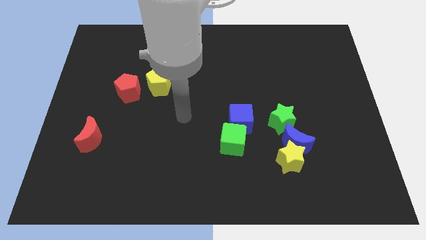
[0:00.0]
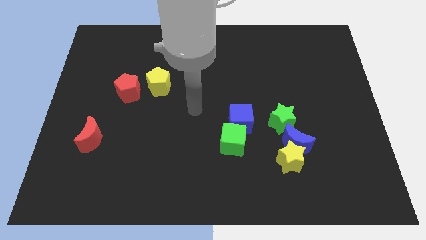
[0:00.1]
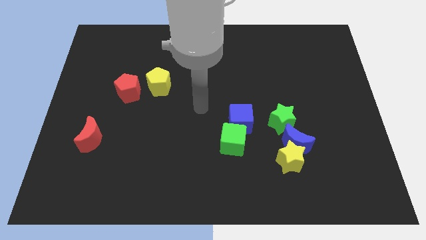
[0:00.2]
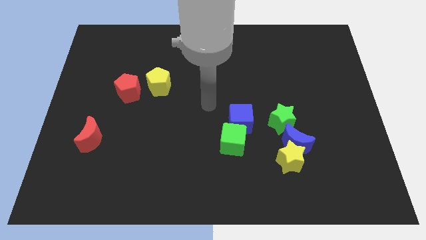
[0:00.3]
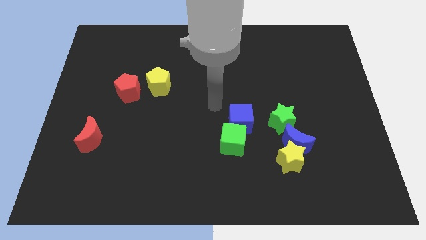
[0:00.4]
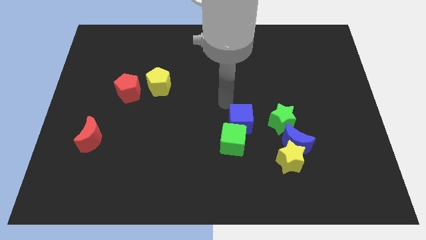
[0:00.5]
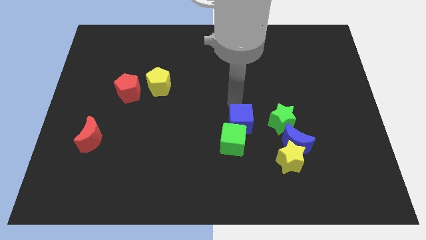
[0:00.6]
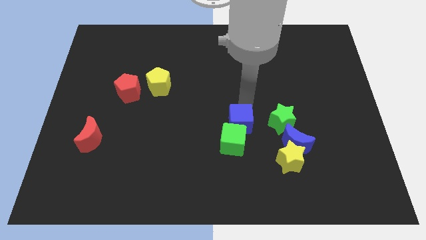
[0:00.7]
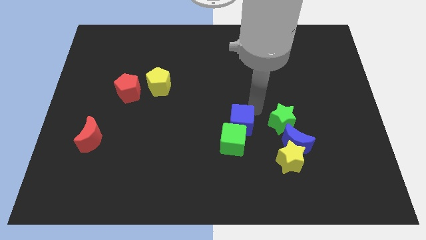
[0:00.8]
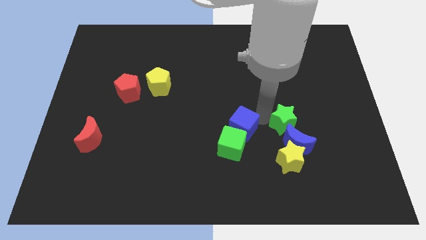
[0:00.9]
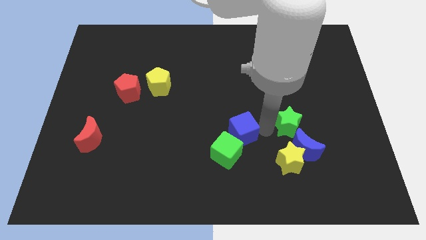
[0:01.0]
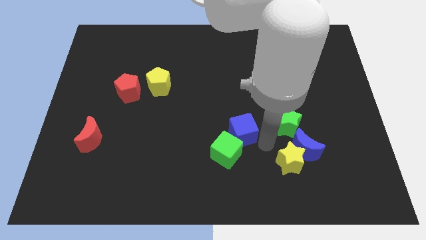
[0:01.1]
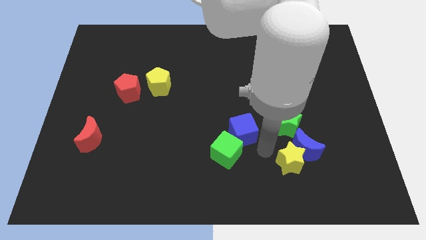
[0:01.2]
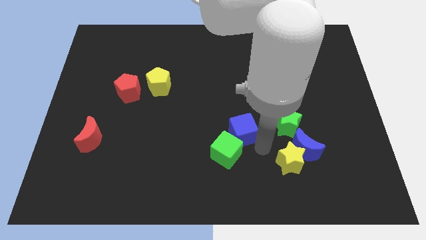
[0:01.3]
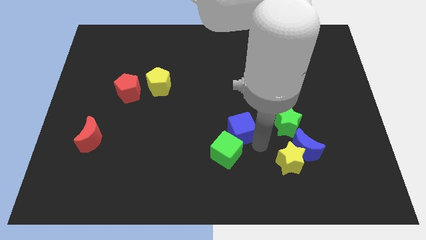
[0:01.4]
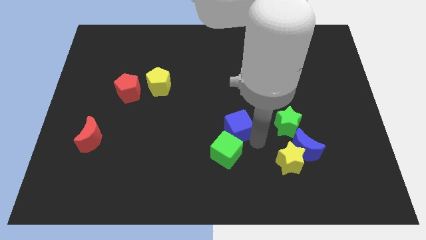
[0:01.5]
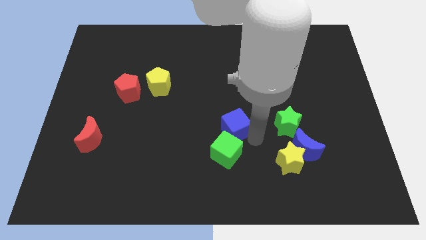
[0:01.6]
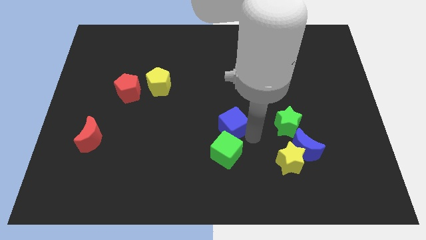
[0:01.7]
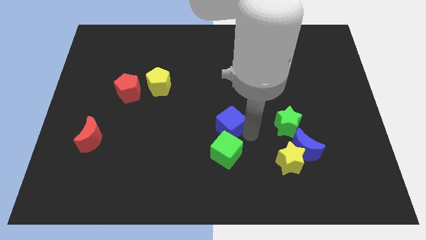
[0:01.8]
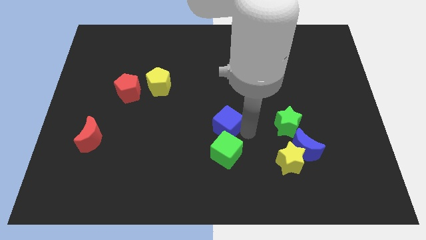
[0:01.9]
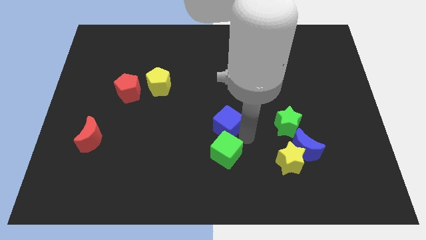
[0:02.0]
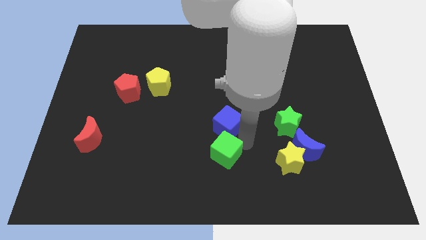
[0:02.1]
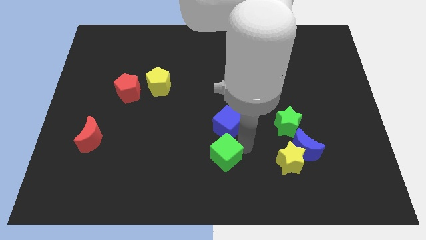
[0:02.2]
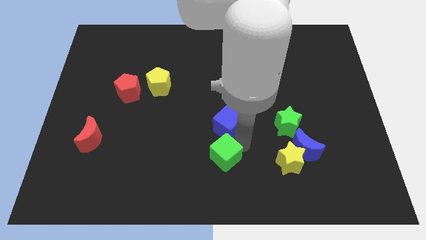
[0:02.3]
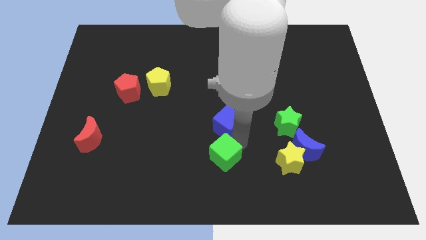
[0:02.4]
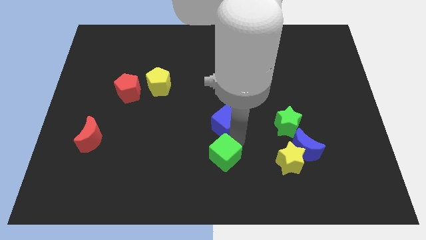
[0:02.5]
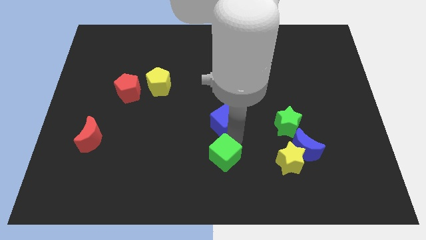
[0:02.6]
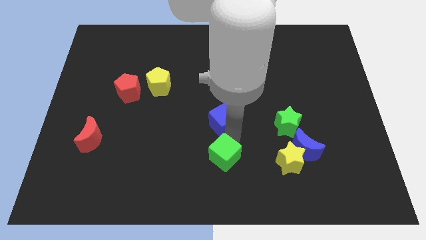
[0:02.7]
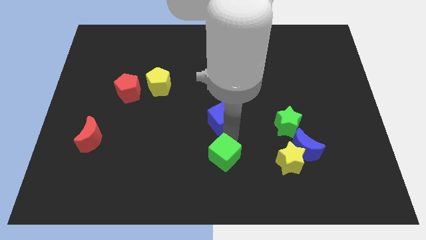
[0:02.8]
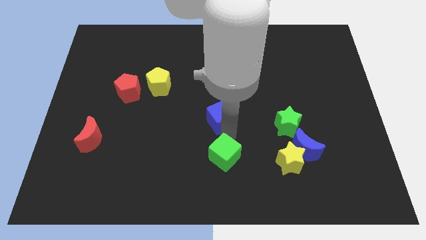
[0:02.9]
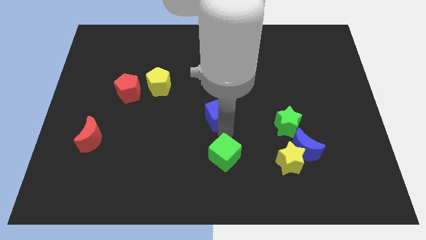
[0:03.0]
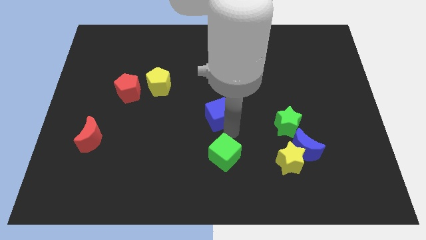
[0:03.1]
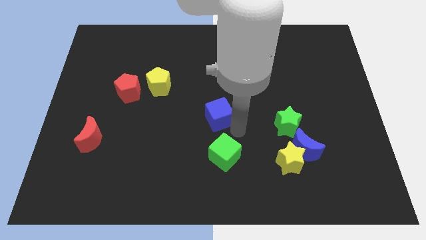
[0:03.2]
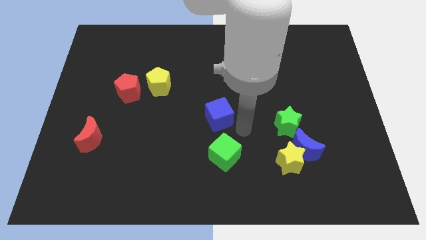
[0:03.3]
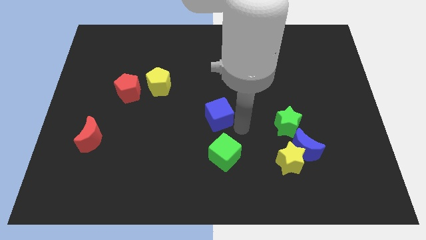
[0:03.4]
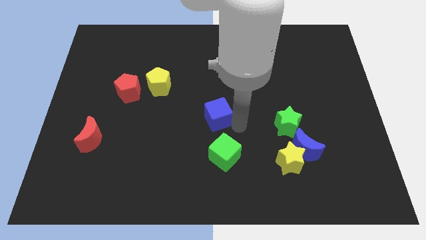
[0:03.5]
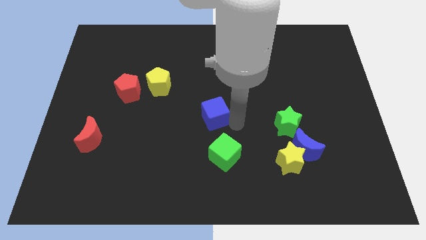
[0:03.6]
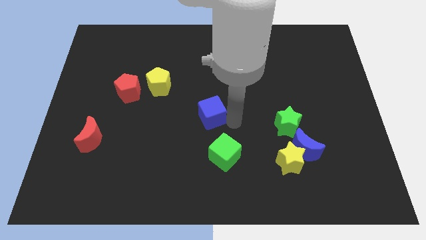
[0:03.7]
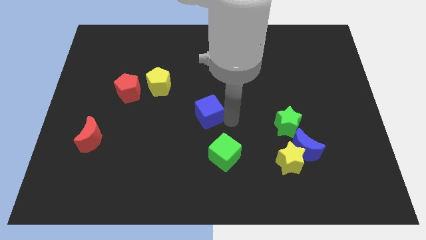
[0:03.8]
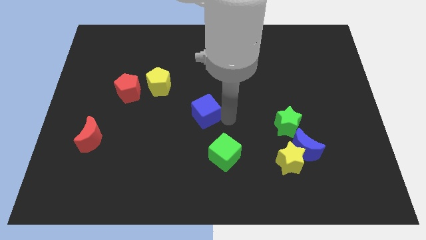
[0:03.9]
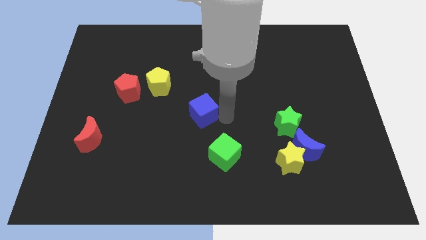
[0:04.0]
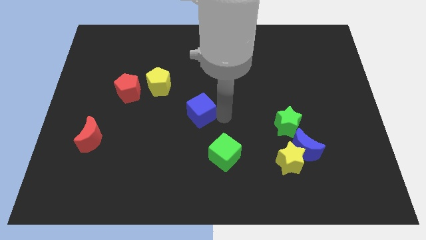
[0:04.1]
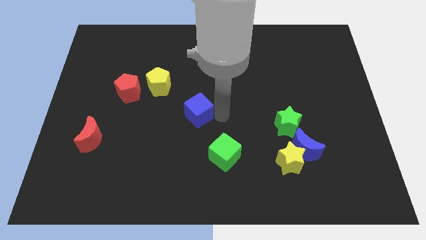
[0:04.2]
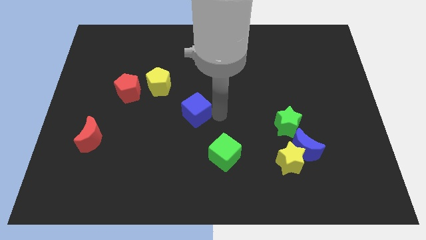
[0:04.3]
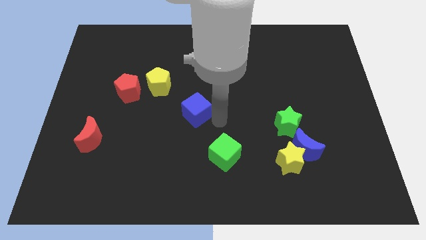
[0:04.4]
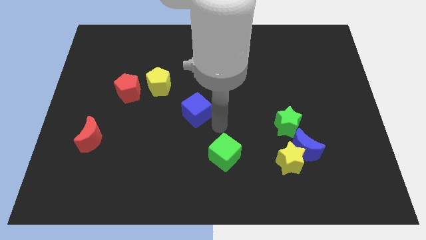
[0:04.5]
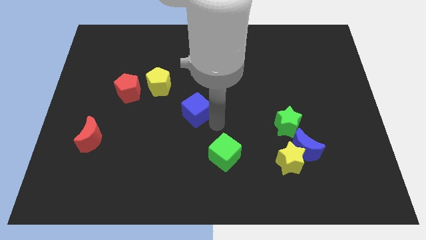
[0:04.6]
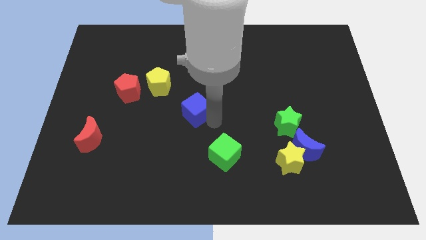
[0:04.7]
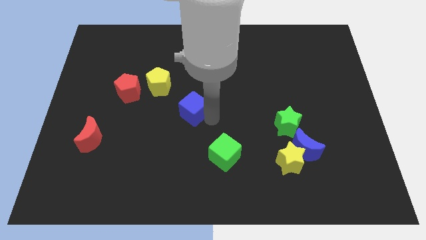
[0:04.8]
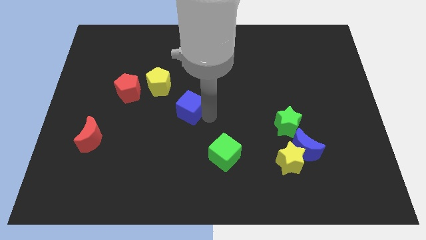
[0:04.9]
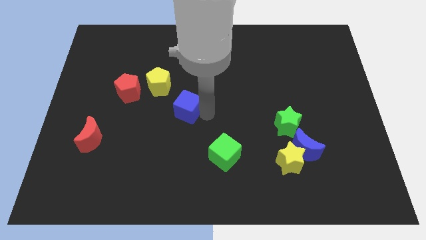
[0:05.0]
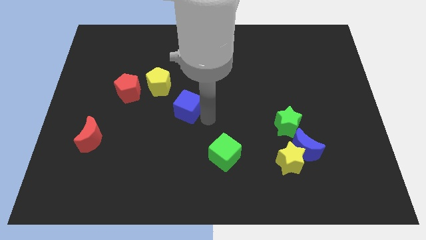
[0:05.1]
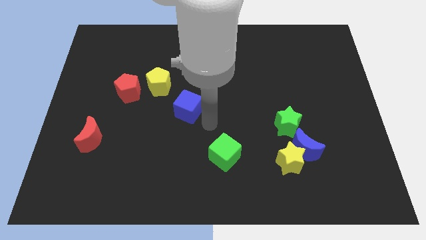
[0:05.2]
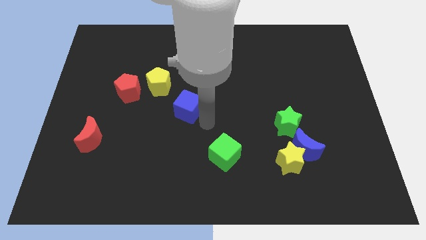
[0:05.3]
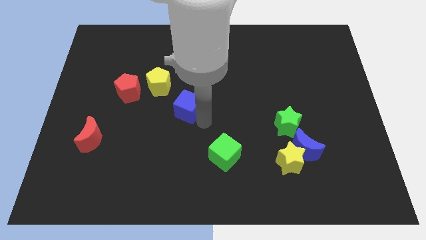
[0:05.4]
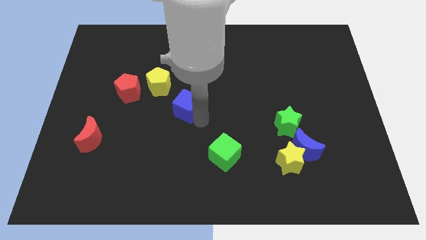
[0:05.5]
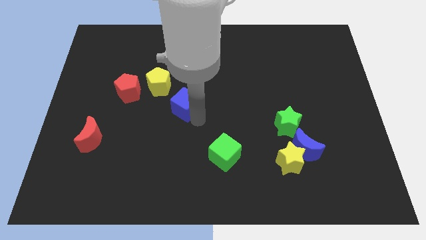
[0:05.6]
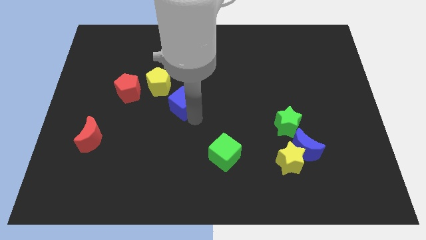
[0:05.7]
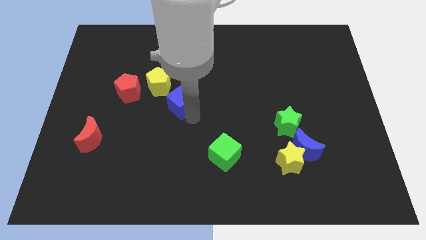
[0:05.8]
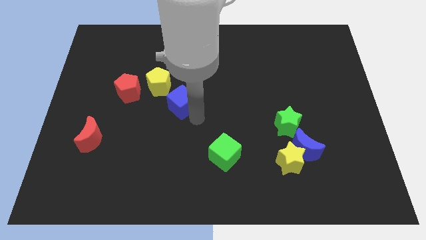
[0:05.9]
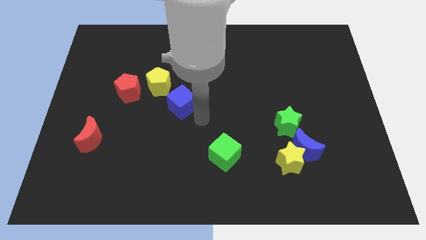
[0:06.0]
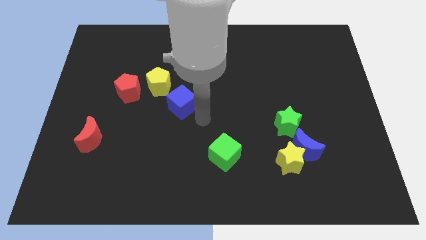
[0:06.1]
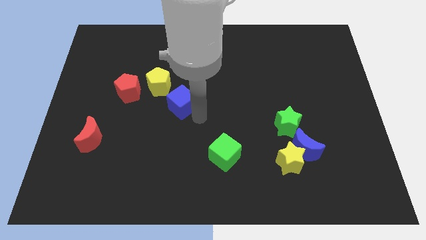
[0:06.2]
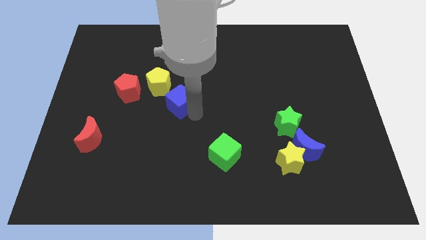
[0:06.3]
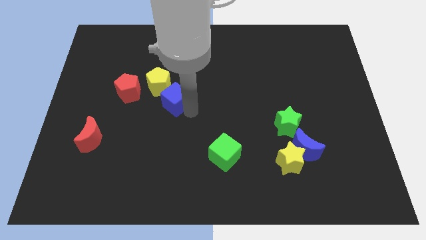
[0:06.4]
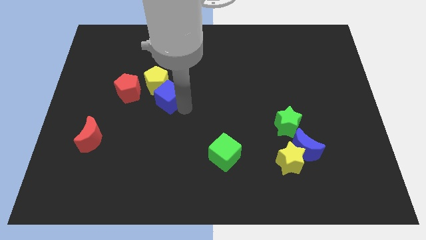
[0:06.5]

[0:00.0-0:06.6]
move the blue cube towards the yellow pentagon

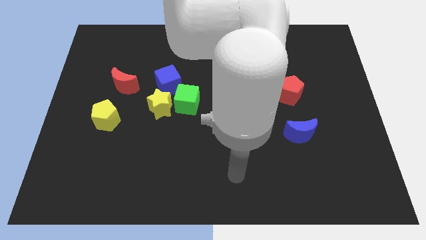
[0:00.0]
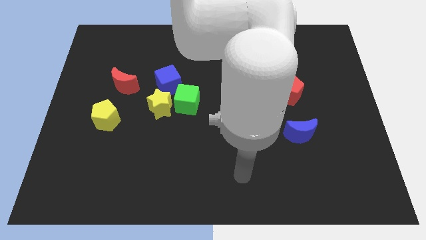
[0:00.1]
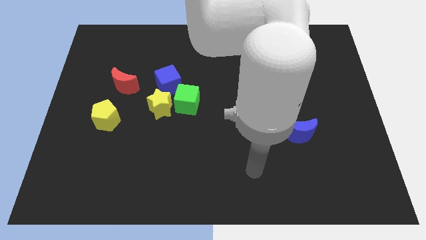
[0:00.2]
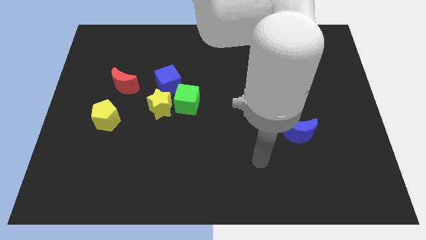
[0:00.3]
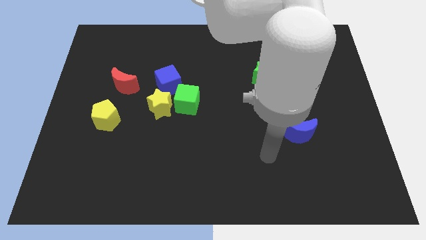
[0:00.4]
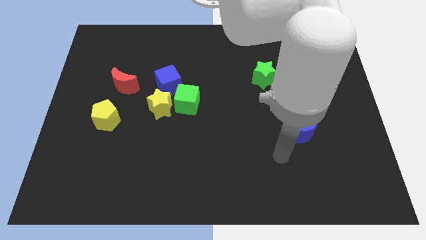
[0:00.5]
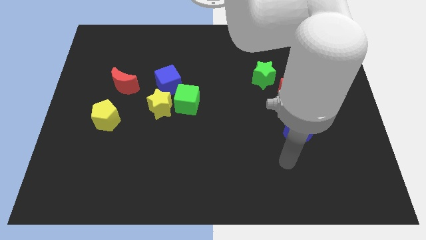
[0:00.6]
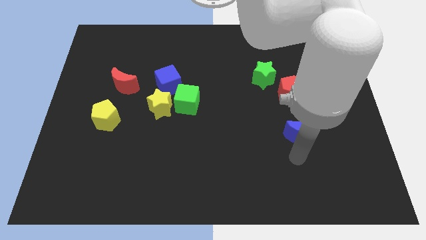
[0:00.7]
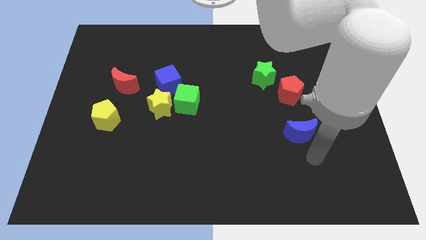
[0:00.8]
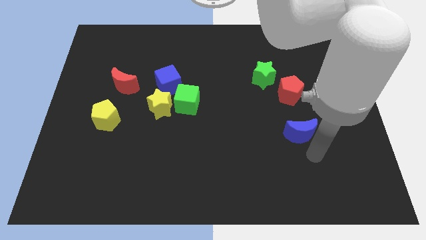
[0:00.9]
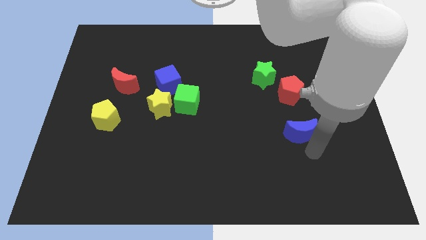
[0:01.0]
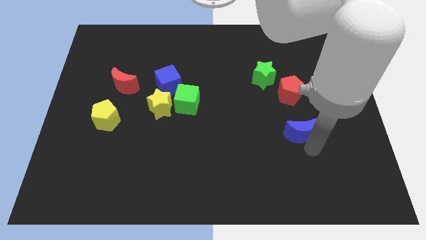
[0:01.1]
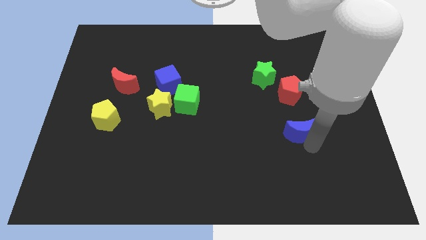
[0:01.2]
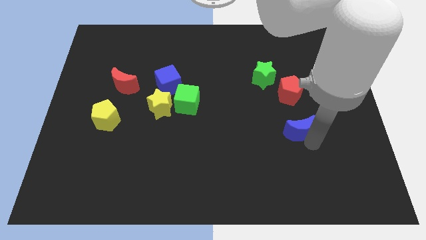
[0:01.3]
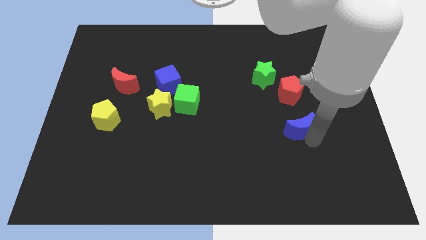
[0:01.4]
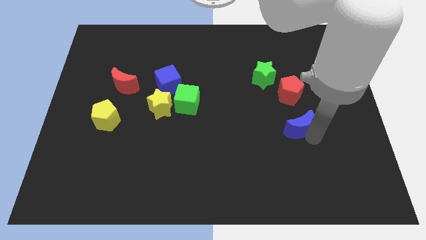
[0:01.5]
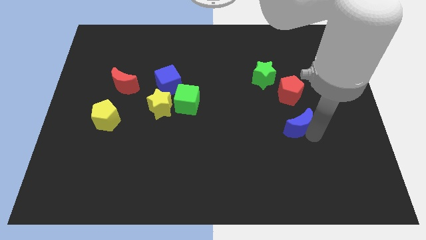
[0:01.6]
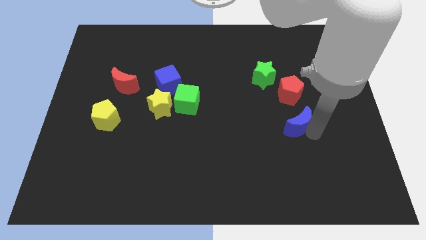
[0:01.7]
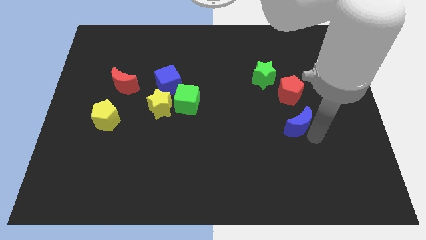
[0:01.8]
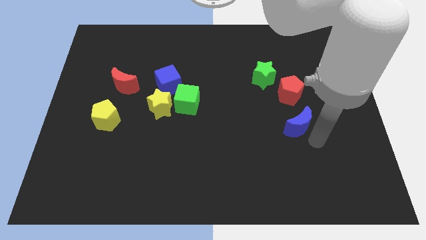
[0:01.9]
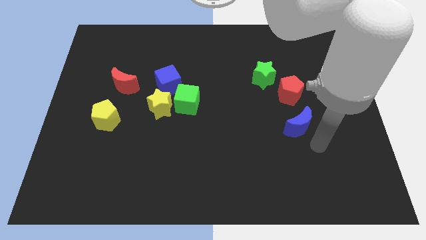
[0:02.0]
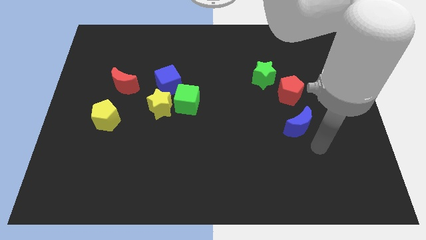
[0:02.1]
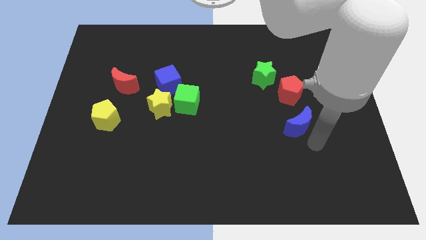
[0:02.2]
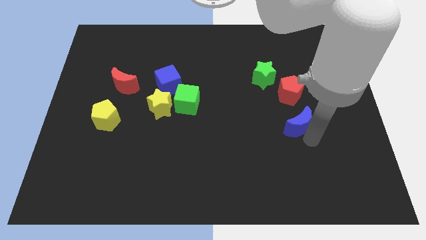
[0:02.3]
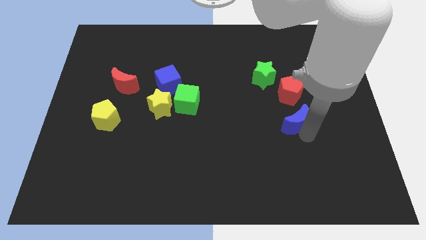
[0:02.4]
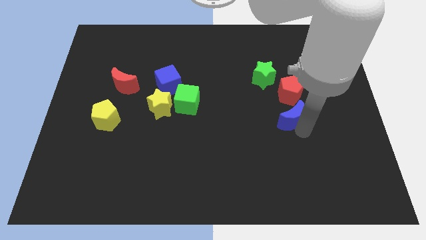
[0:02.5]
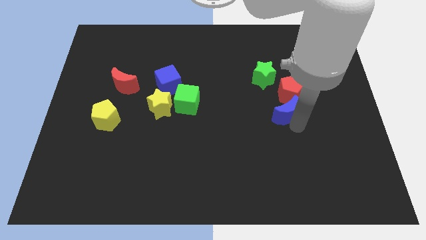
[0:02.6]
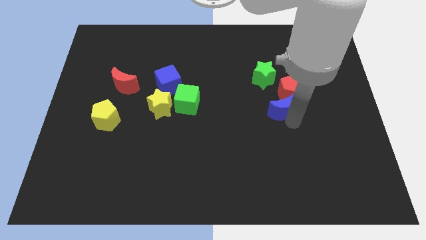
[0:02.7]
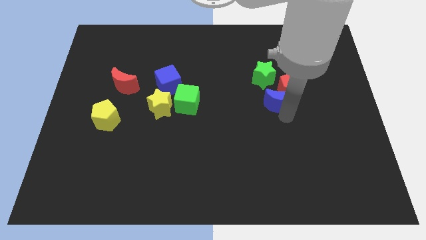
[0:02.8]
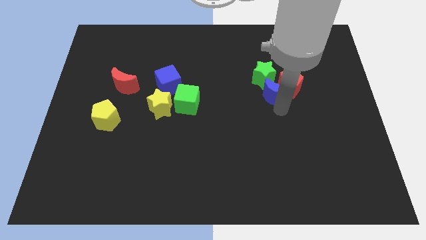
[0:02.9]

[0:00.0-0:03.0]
push the blue moon to the green star
